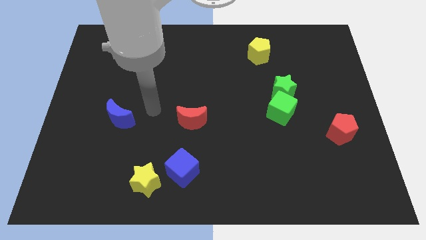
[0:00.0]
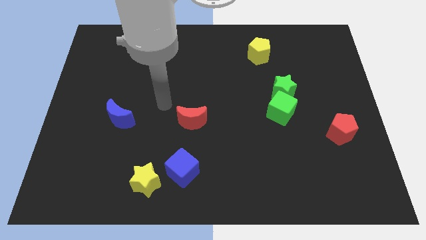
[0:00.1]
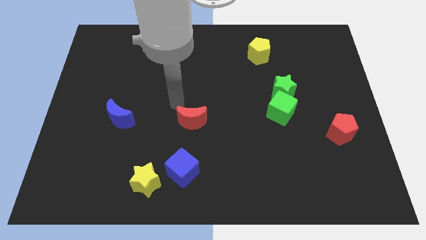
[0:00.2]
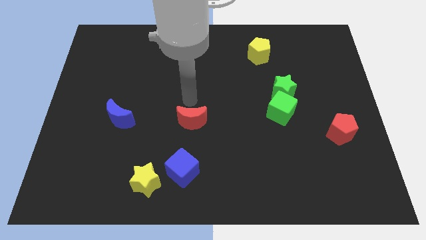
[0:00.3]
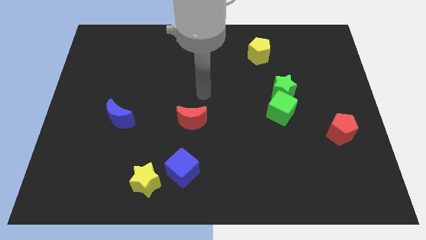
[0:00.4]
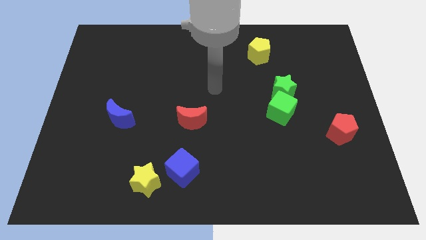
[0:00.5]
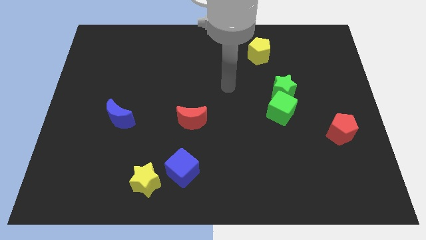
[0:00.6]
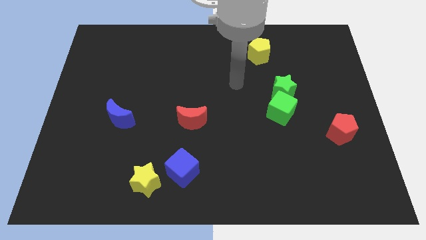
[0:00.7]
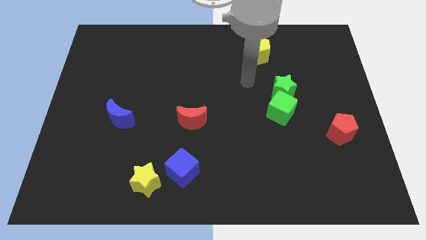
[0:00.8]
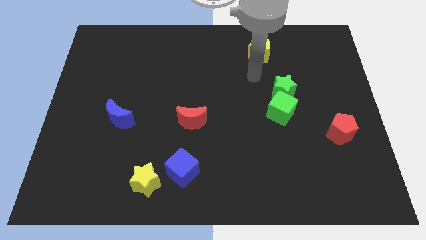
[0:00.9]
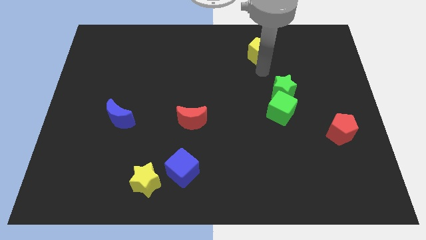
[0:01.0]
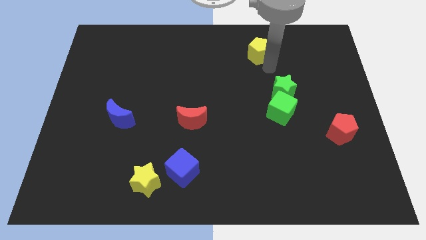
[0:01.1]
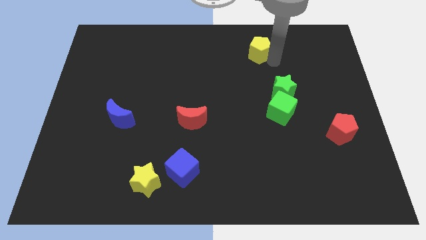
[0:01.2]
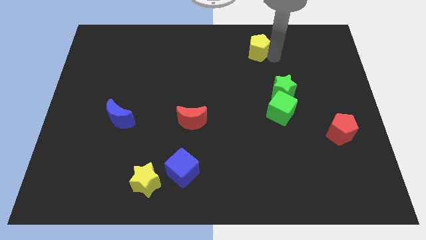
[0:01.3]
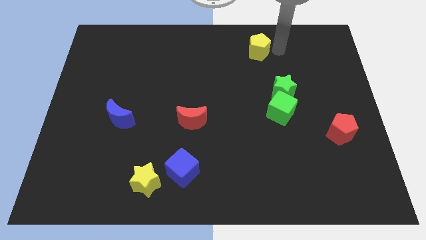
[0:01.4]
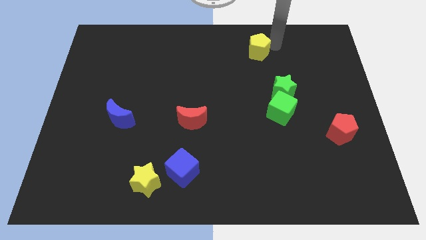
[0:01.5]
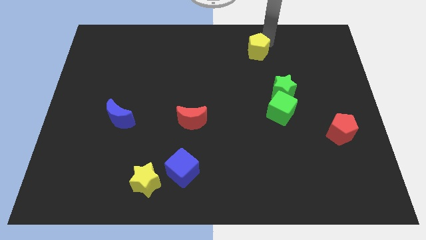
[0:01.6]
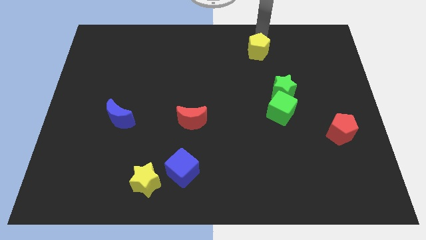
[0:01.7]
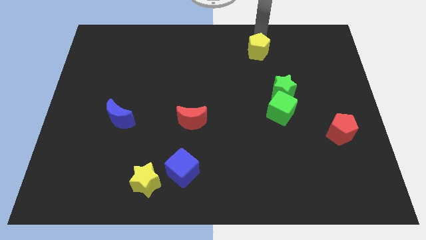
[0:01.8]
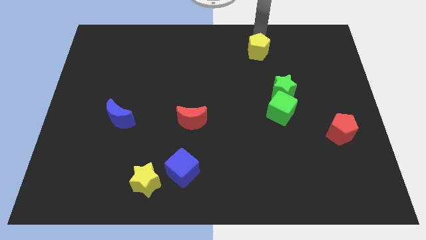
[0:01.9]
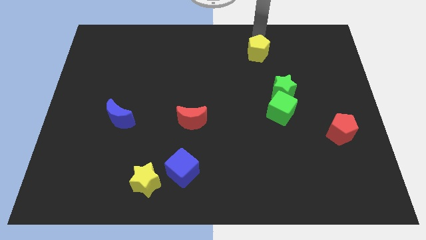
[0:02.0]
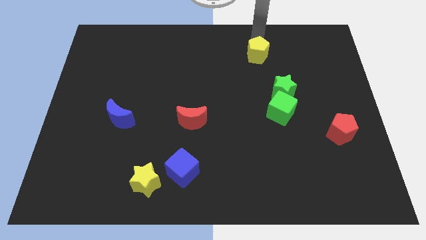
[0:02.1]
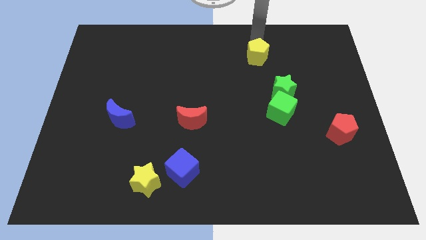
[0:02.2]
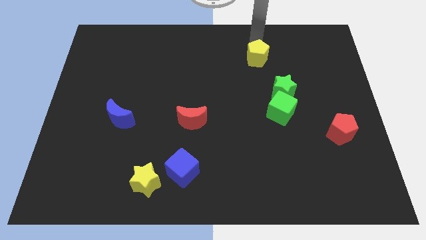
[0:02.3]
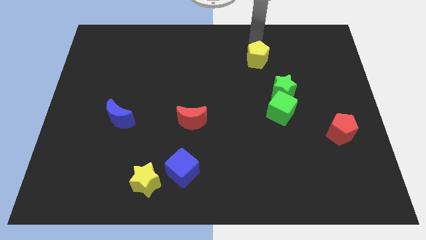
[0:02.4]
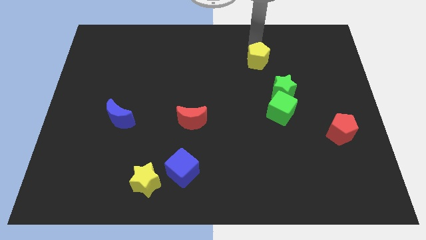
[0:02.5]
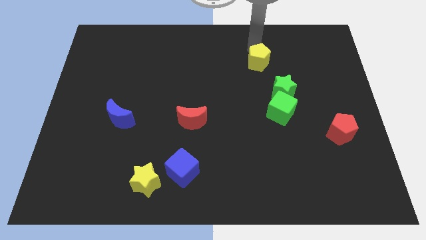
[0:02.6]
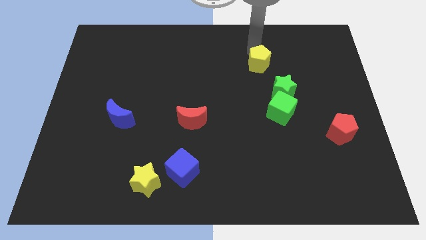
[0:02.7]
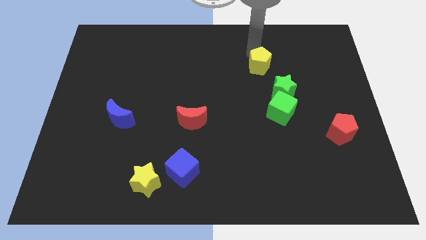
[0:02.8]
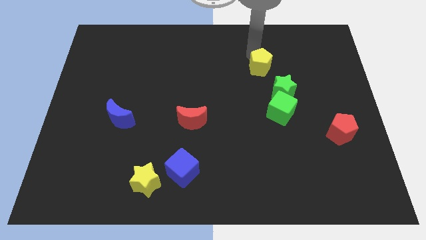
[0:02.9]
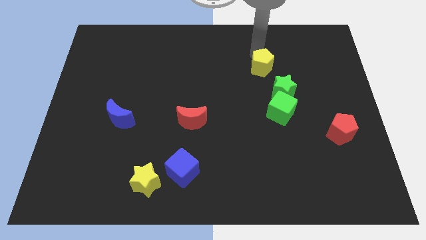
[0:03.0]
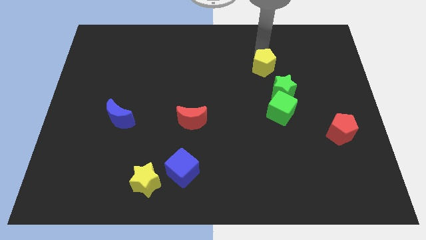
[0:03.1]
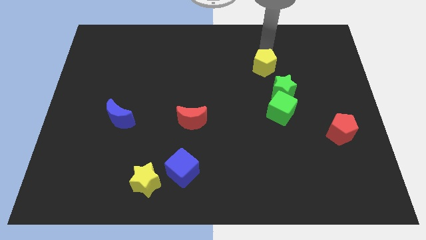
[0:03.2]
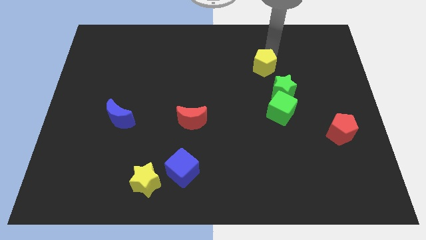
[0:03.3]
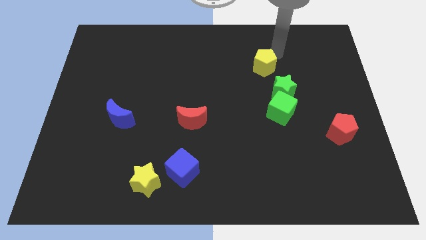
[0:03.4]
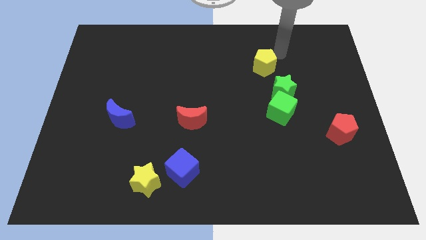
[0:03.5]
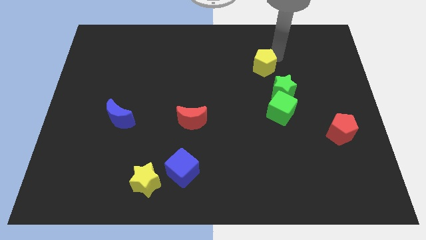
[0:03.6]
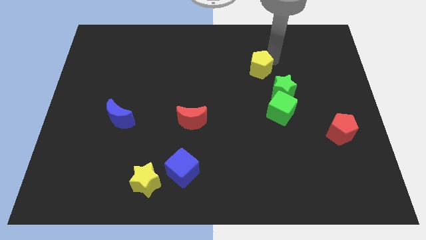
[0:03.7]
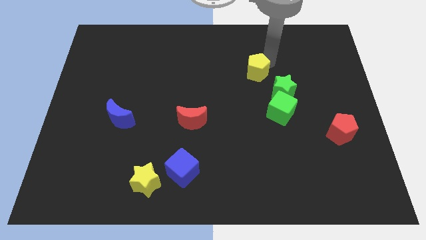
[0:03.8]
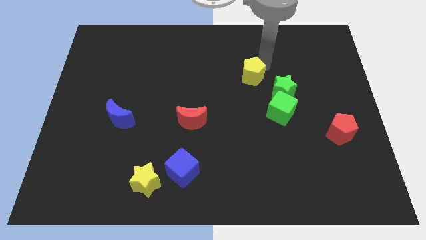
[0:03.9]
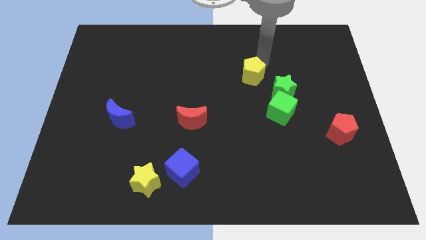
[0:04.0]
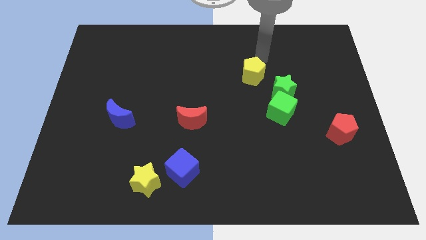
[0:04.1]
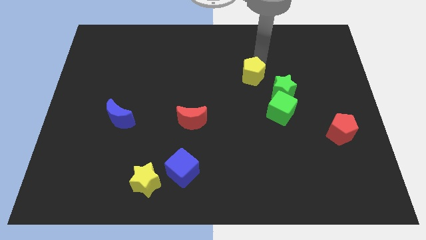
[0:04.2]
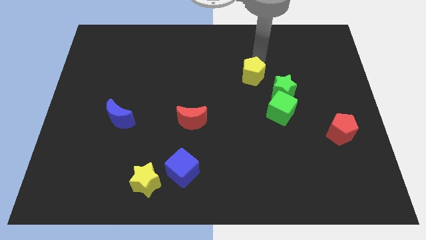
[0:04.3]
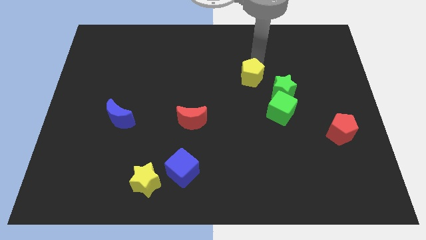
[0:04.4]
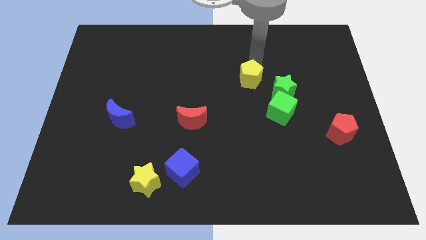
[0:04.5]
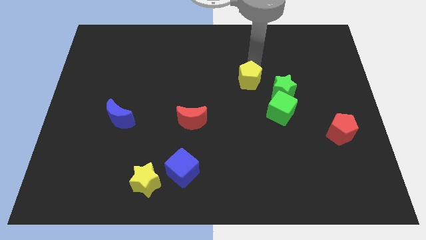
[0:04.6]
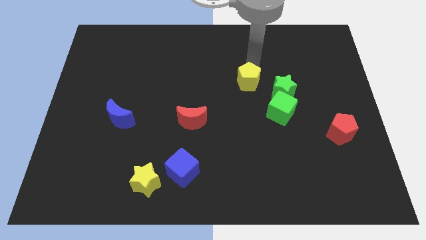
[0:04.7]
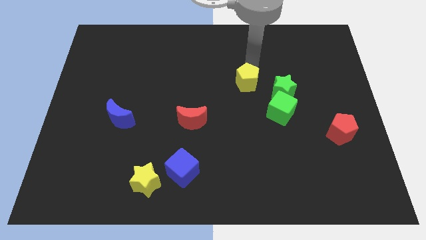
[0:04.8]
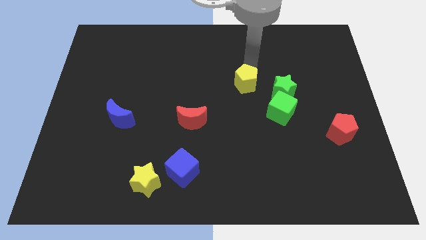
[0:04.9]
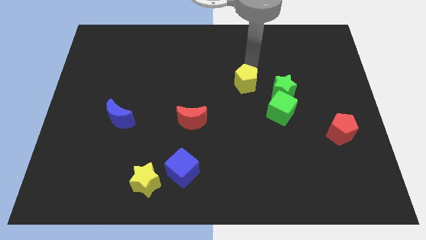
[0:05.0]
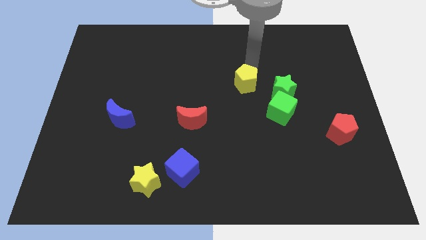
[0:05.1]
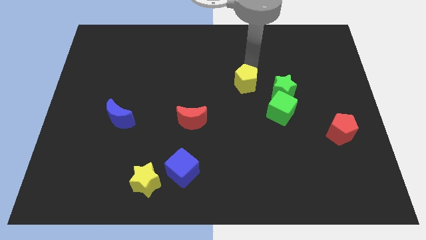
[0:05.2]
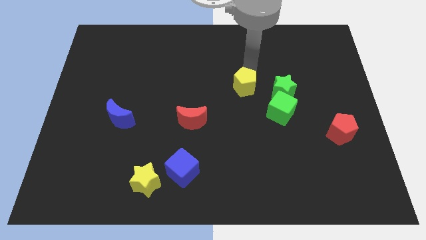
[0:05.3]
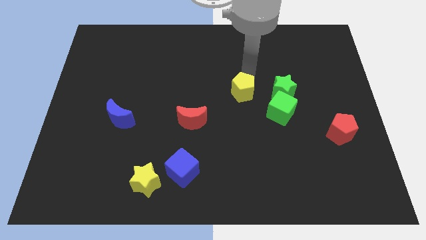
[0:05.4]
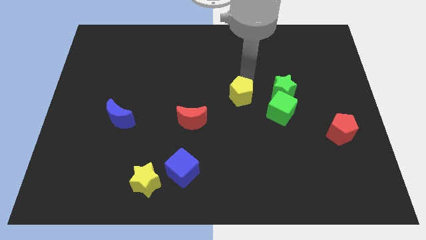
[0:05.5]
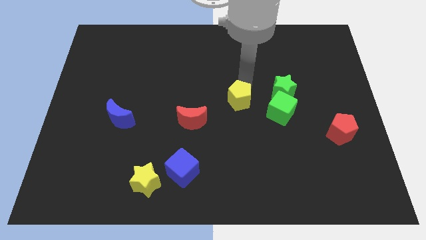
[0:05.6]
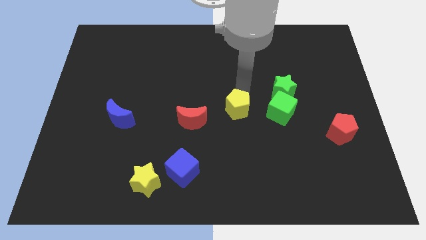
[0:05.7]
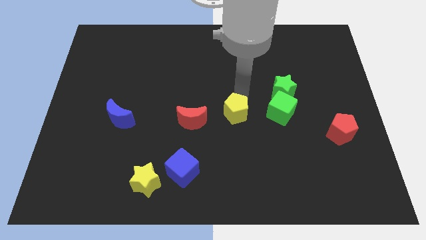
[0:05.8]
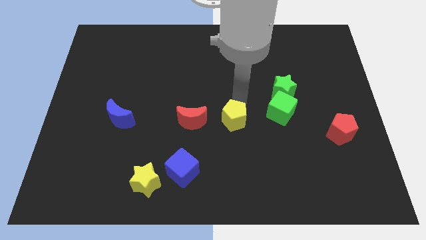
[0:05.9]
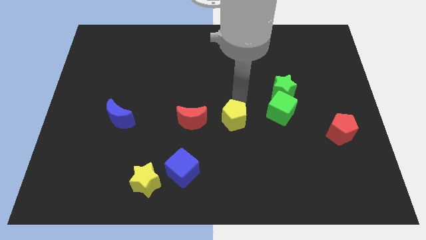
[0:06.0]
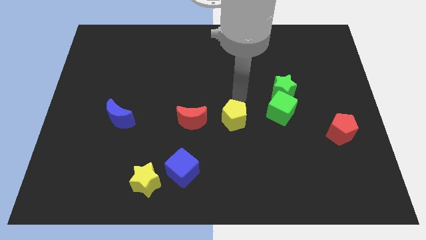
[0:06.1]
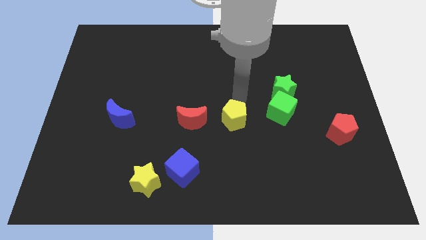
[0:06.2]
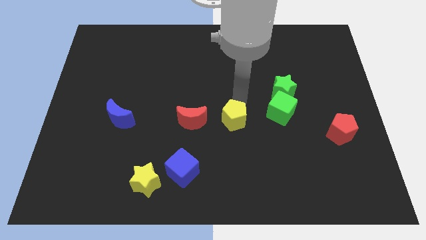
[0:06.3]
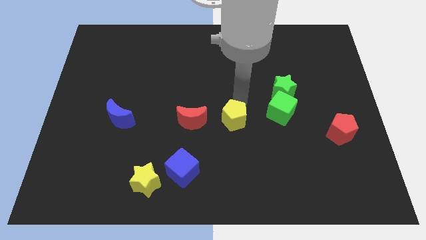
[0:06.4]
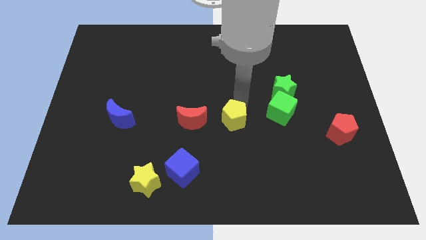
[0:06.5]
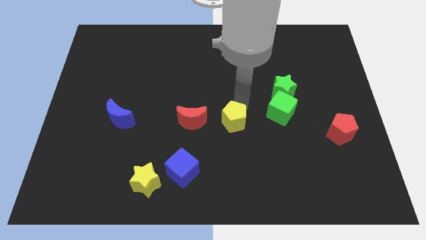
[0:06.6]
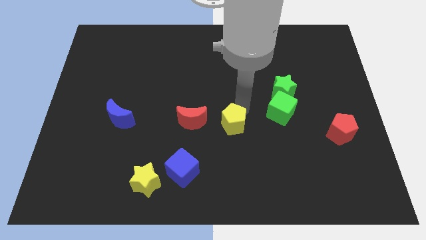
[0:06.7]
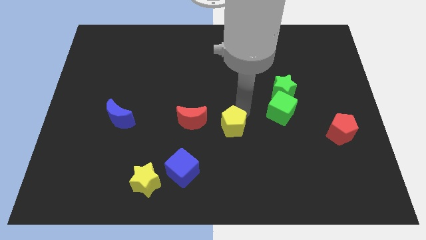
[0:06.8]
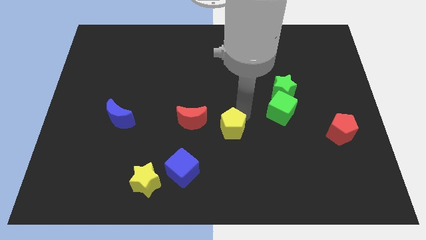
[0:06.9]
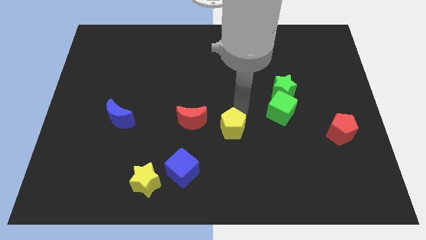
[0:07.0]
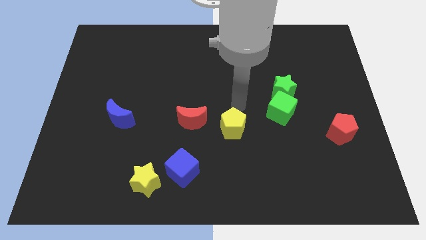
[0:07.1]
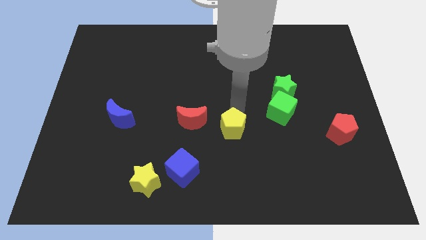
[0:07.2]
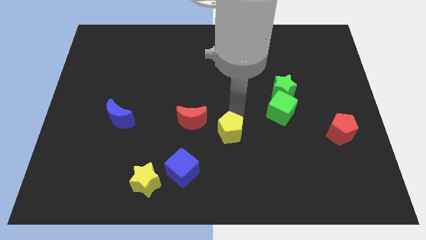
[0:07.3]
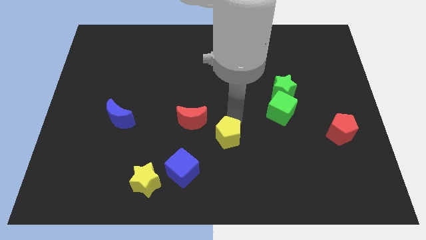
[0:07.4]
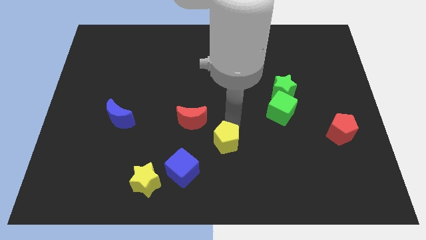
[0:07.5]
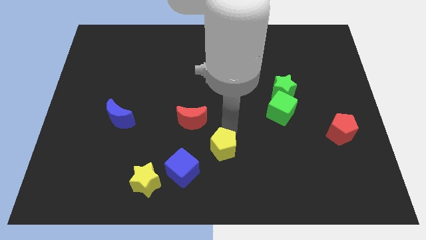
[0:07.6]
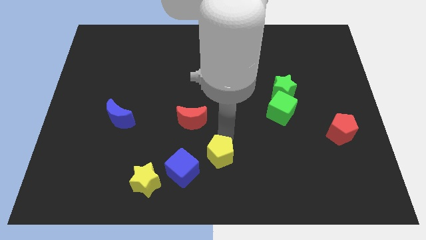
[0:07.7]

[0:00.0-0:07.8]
move the yellow pentagon to the right of the blue cube
